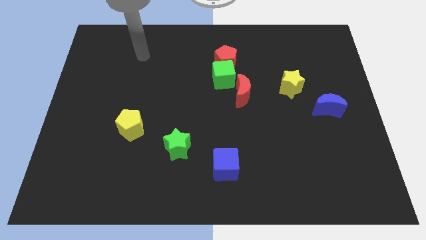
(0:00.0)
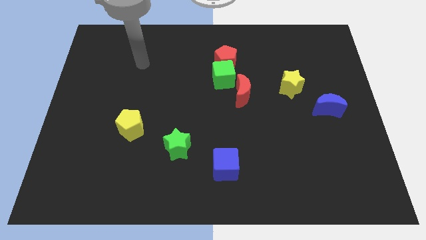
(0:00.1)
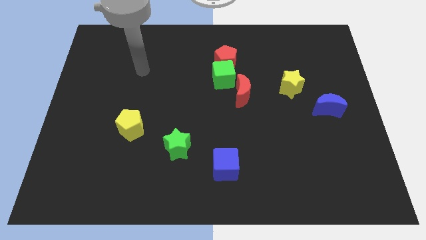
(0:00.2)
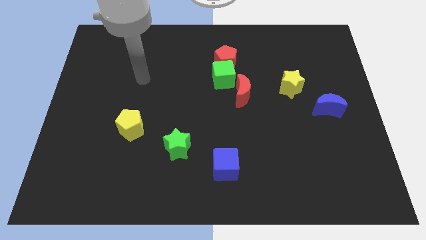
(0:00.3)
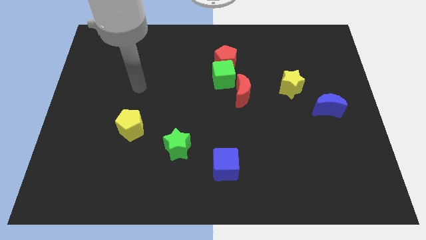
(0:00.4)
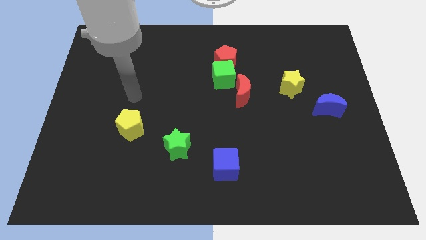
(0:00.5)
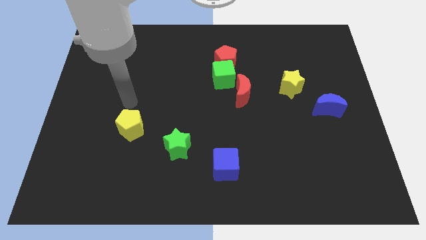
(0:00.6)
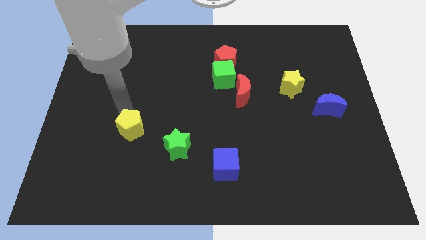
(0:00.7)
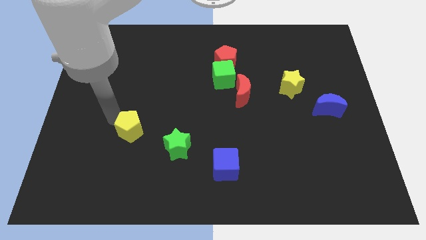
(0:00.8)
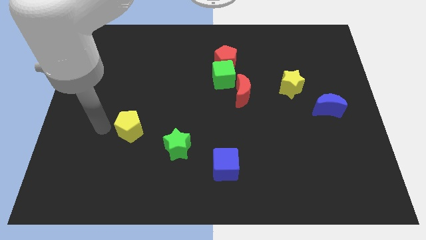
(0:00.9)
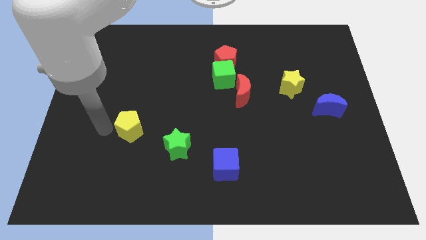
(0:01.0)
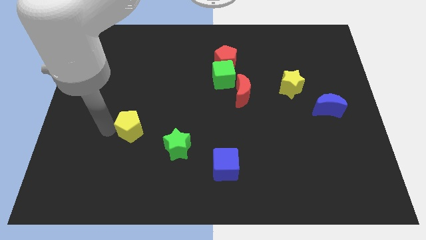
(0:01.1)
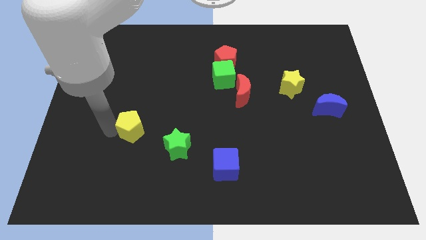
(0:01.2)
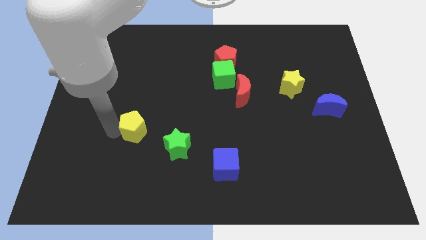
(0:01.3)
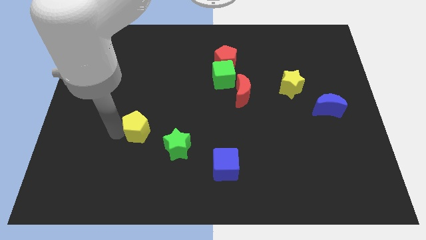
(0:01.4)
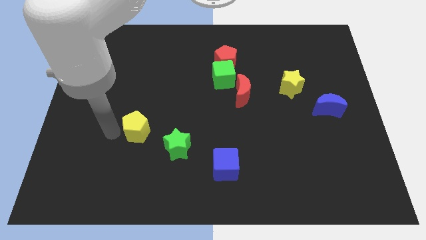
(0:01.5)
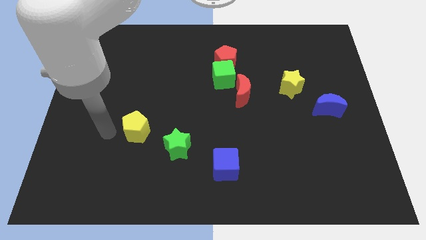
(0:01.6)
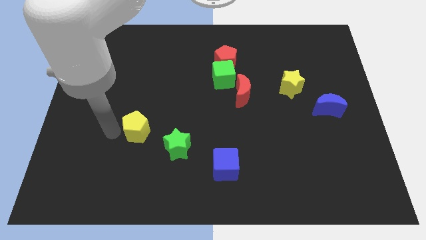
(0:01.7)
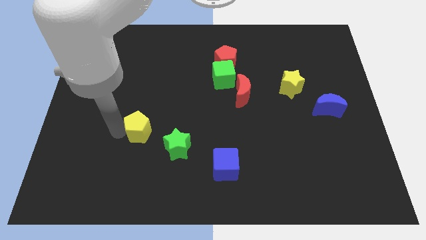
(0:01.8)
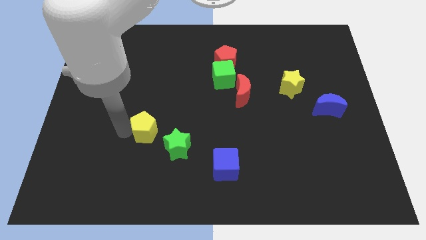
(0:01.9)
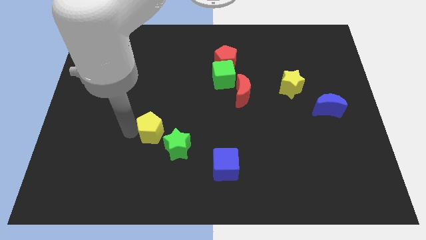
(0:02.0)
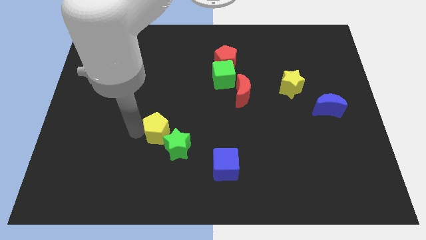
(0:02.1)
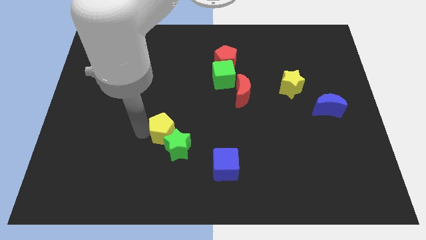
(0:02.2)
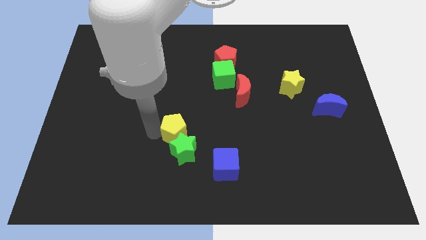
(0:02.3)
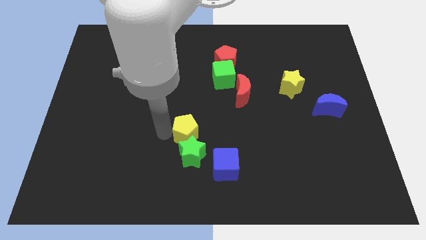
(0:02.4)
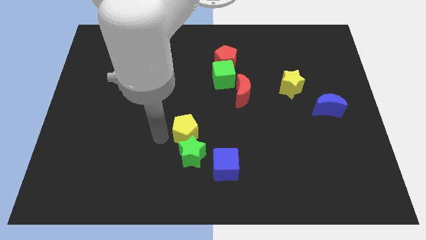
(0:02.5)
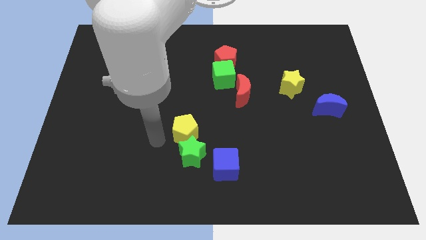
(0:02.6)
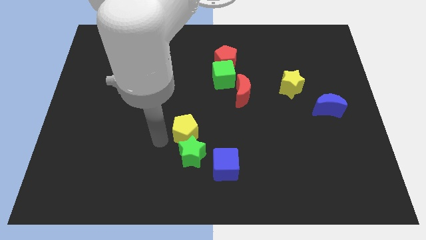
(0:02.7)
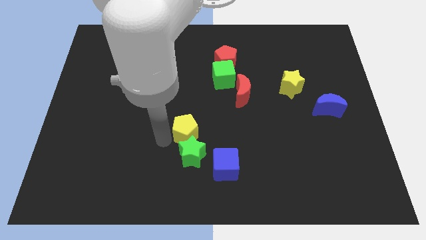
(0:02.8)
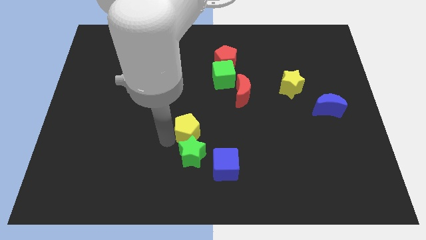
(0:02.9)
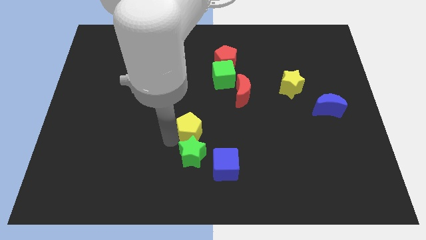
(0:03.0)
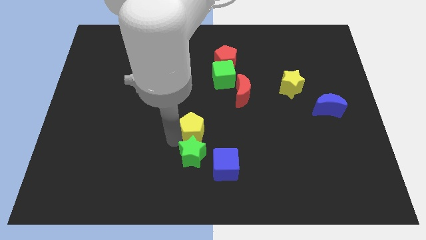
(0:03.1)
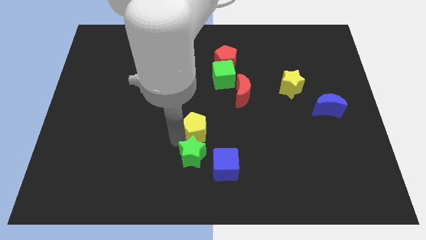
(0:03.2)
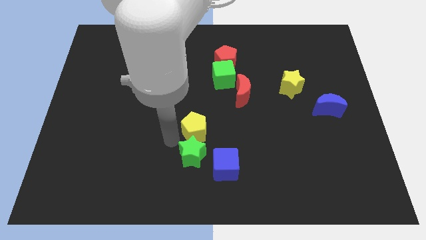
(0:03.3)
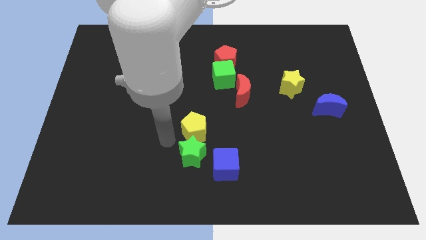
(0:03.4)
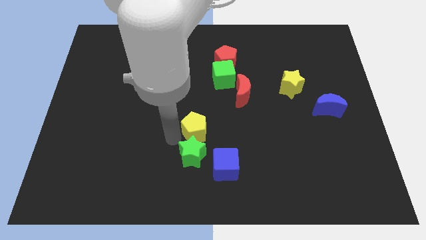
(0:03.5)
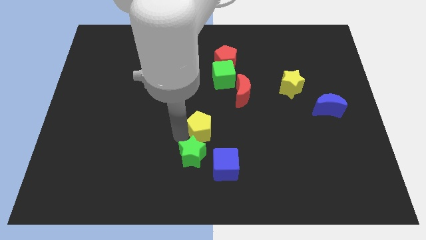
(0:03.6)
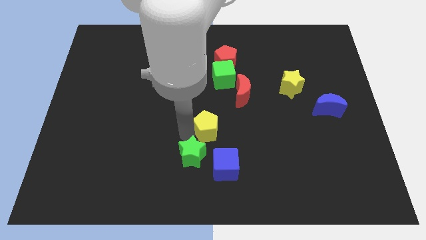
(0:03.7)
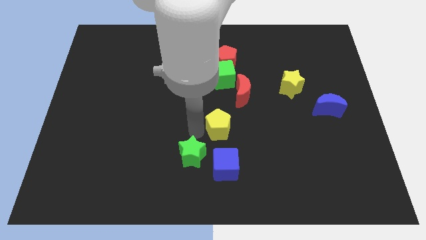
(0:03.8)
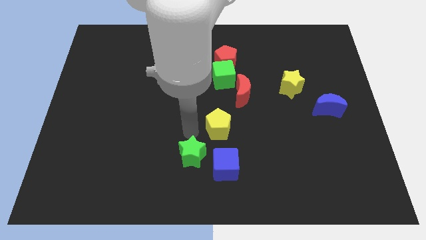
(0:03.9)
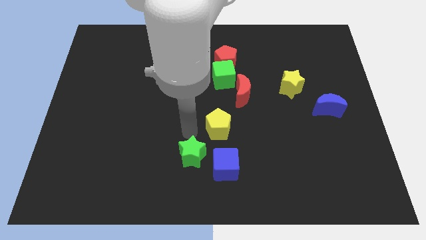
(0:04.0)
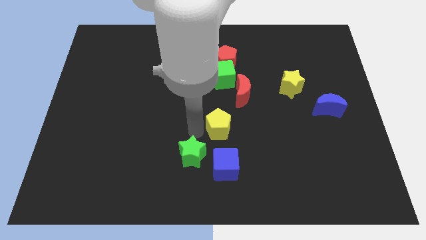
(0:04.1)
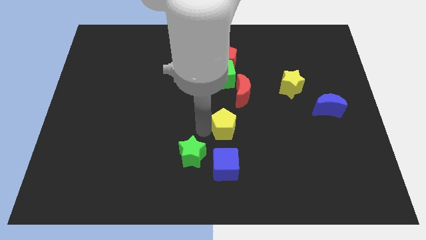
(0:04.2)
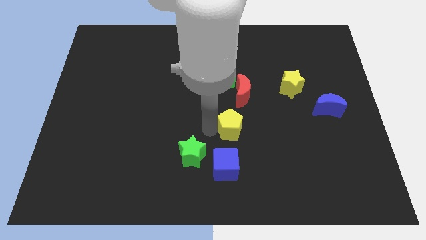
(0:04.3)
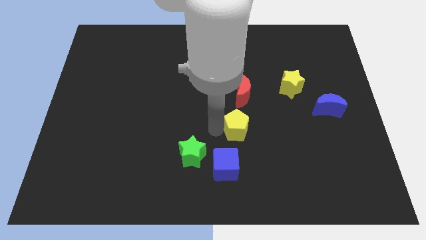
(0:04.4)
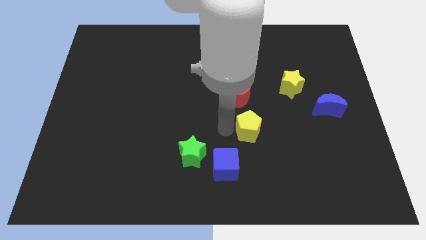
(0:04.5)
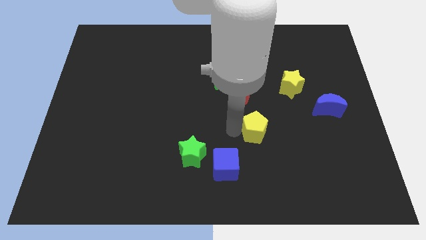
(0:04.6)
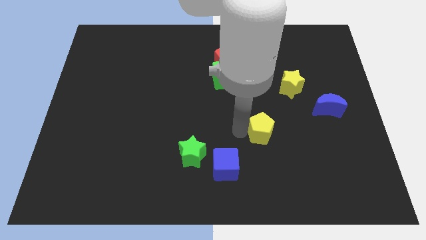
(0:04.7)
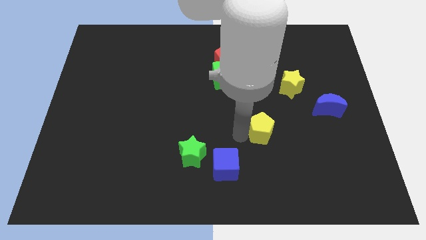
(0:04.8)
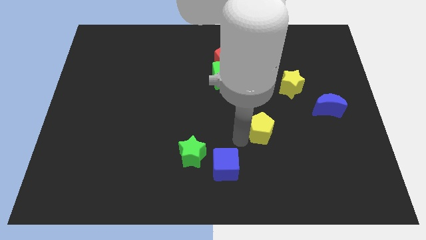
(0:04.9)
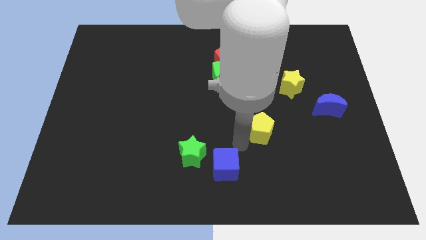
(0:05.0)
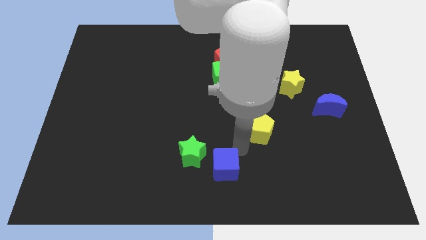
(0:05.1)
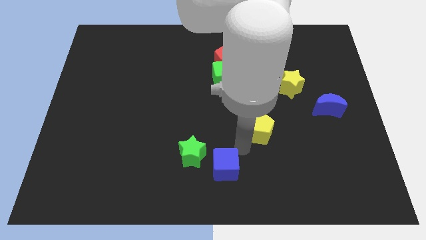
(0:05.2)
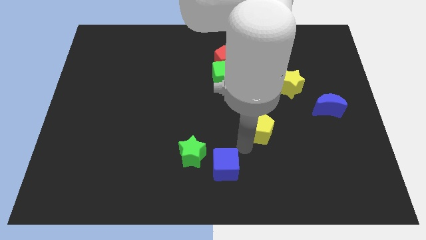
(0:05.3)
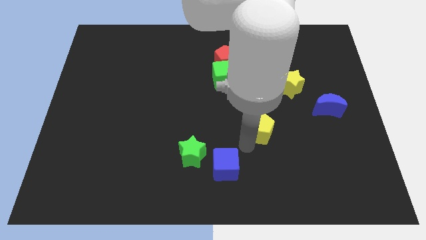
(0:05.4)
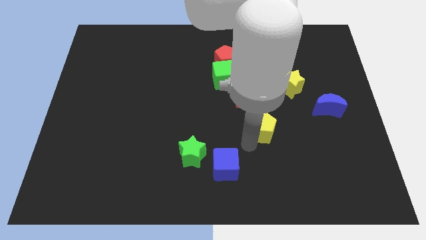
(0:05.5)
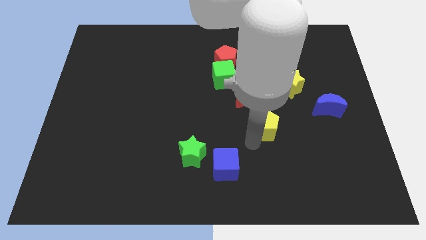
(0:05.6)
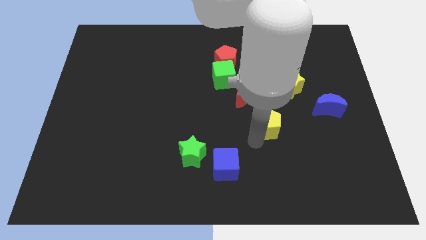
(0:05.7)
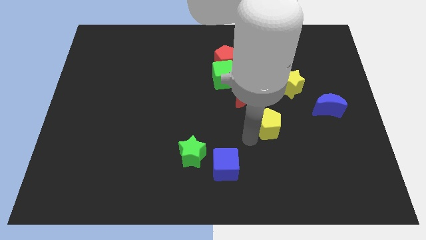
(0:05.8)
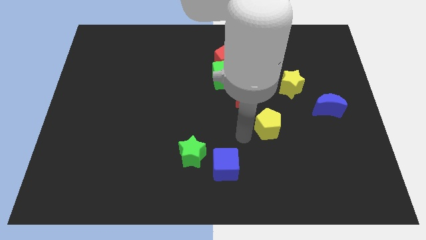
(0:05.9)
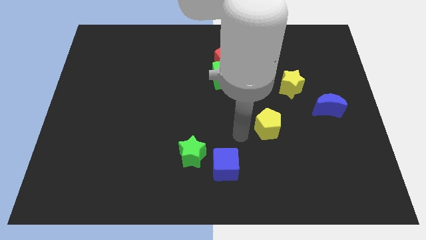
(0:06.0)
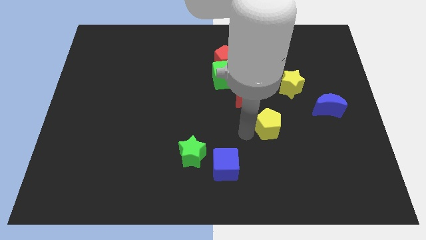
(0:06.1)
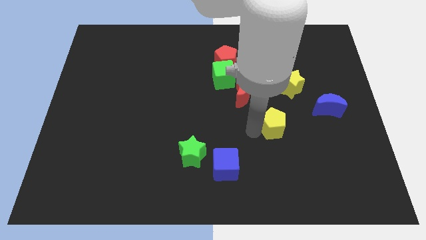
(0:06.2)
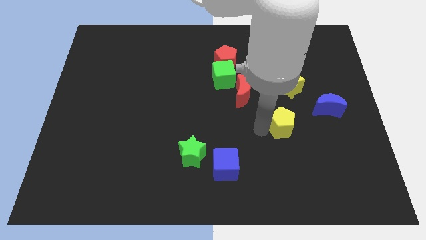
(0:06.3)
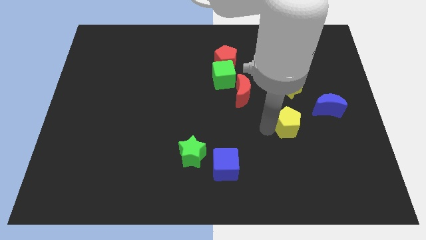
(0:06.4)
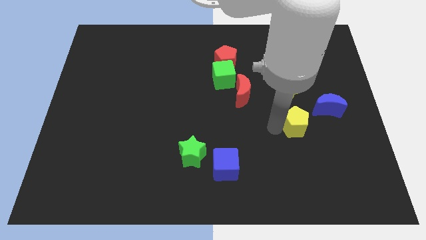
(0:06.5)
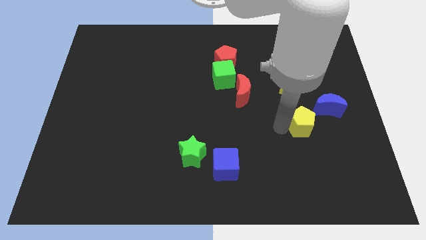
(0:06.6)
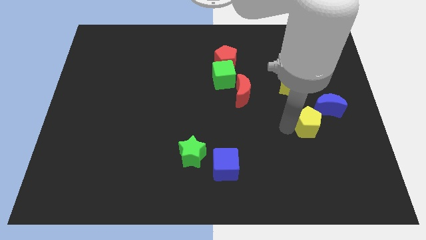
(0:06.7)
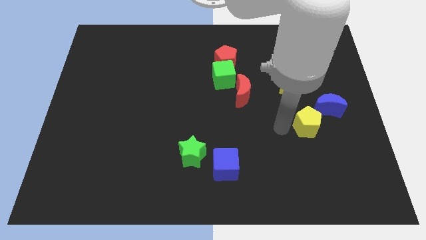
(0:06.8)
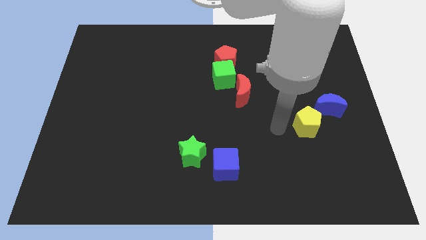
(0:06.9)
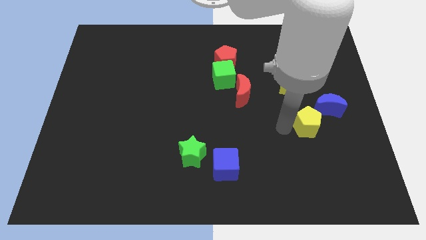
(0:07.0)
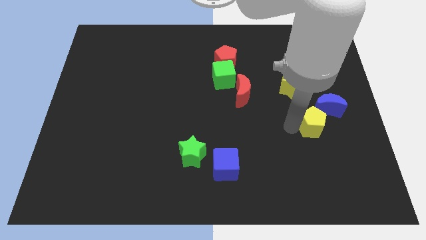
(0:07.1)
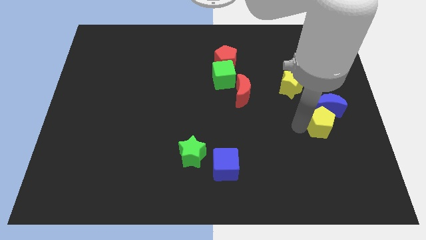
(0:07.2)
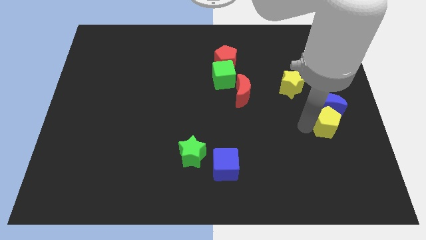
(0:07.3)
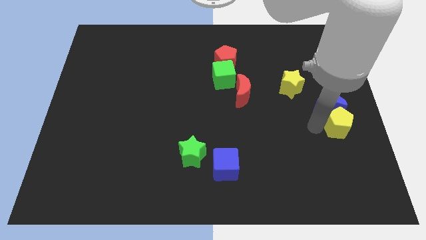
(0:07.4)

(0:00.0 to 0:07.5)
slide the yellow pentagon to the right side of the board

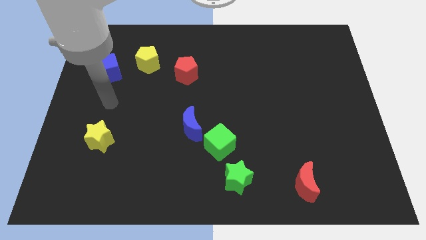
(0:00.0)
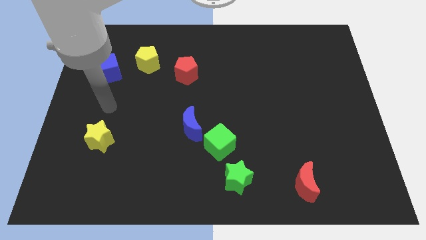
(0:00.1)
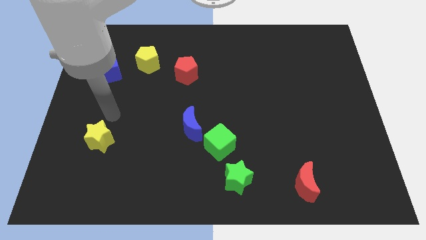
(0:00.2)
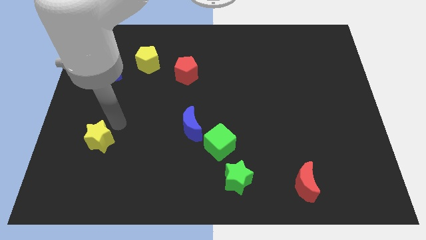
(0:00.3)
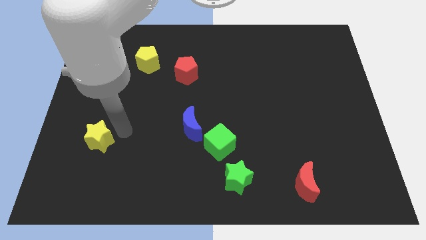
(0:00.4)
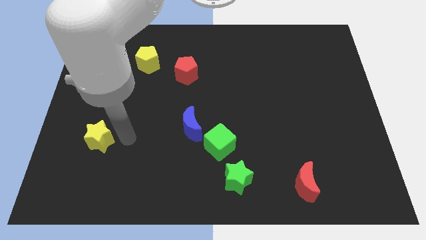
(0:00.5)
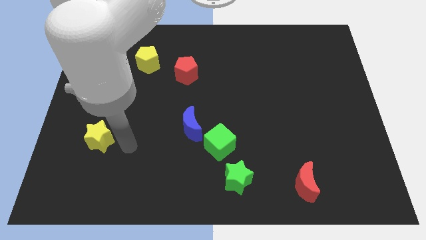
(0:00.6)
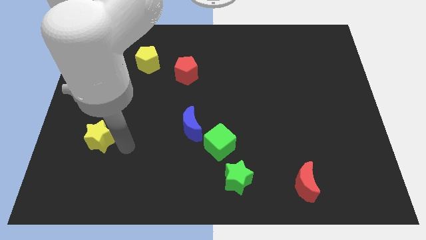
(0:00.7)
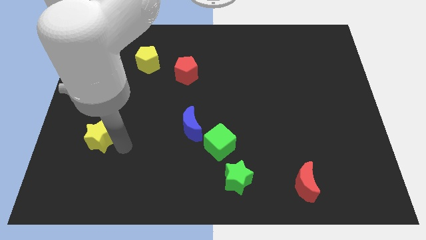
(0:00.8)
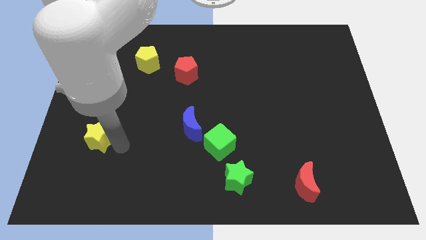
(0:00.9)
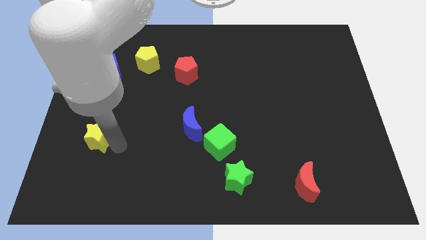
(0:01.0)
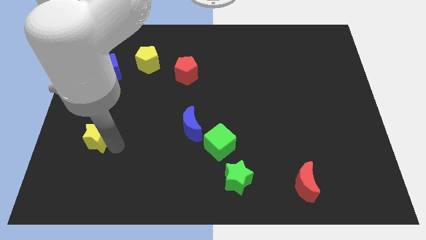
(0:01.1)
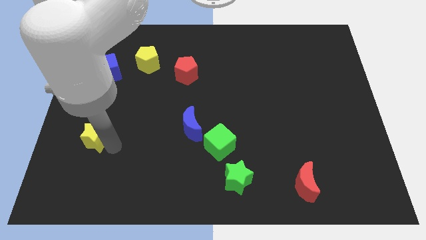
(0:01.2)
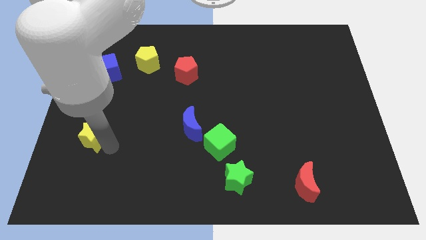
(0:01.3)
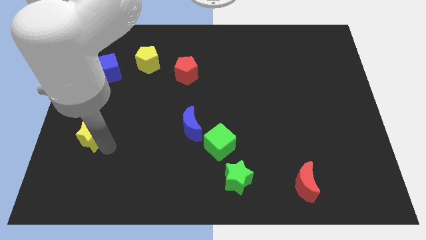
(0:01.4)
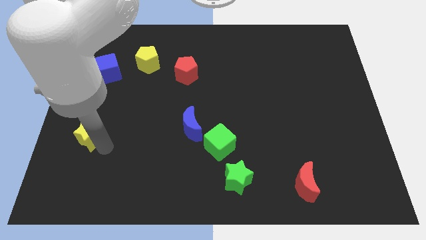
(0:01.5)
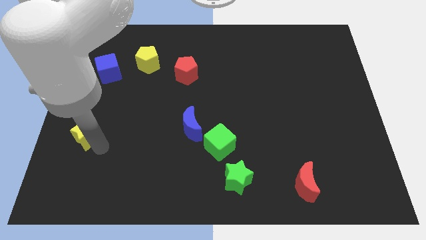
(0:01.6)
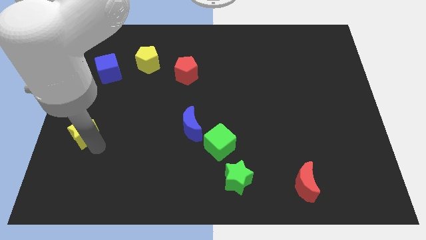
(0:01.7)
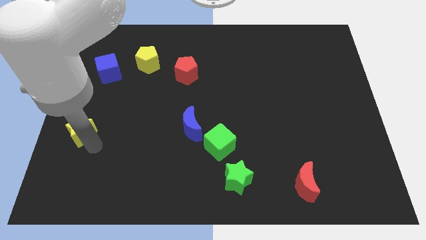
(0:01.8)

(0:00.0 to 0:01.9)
slide the yellow star to the left side
